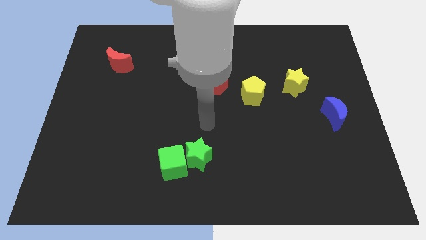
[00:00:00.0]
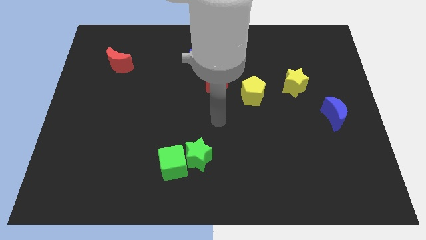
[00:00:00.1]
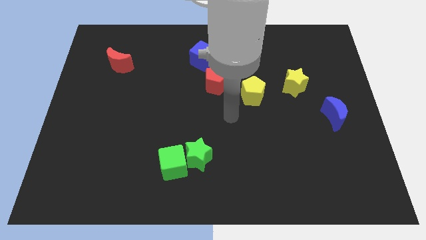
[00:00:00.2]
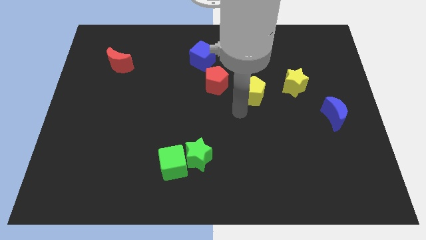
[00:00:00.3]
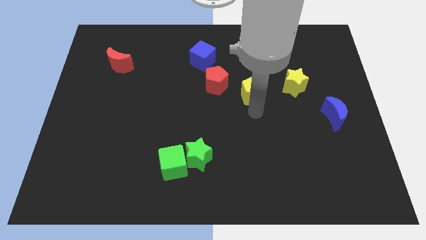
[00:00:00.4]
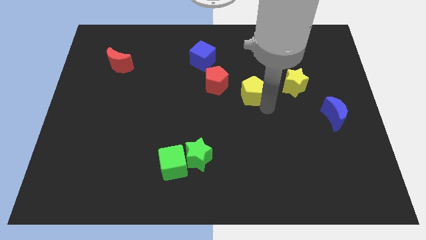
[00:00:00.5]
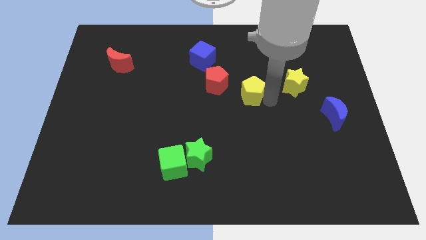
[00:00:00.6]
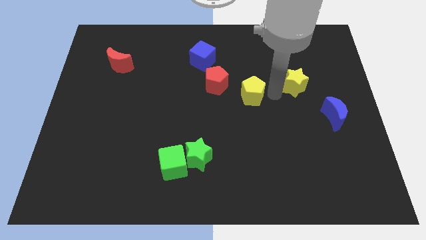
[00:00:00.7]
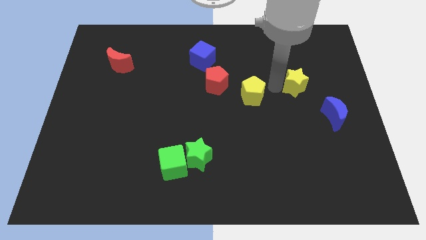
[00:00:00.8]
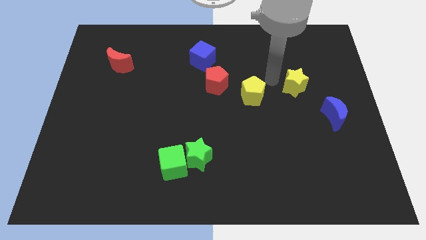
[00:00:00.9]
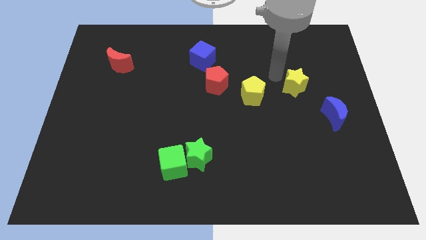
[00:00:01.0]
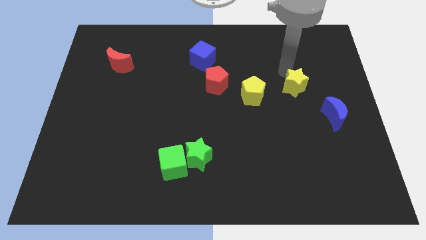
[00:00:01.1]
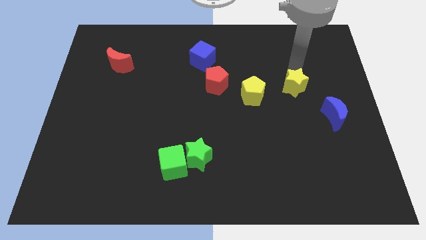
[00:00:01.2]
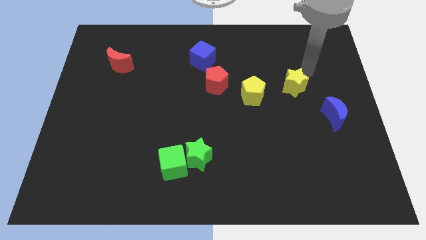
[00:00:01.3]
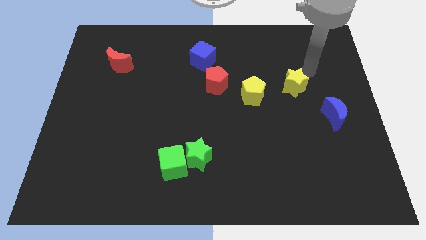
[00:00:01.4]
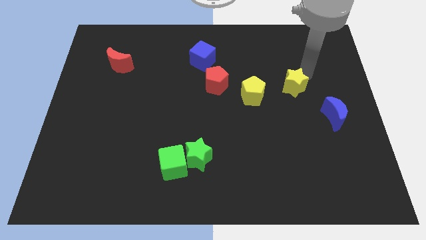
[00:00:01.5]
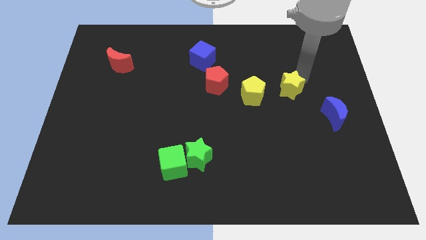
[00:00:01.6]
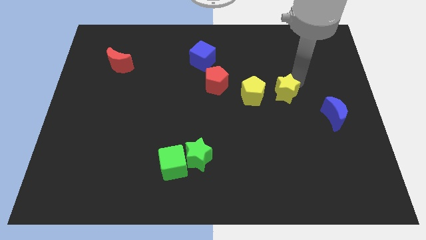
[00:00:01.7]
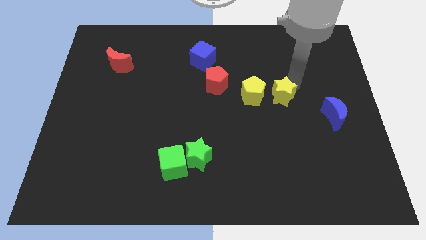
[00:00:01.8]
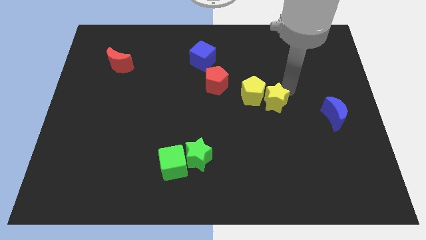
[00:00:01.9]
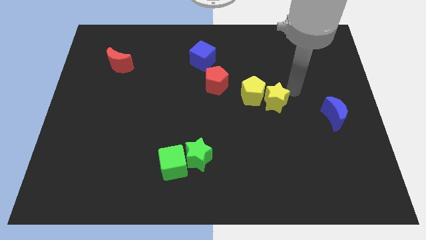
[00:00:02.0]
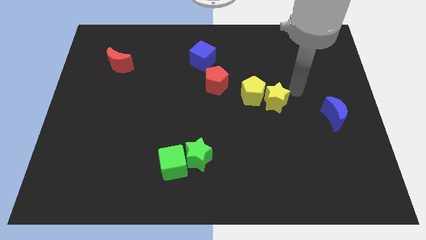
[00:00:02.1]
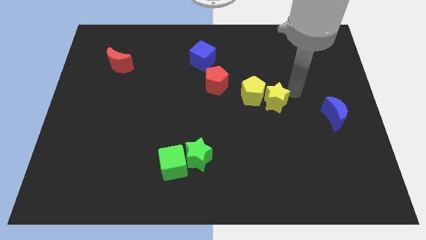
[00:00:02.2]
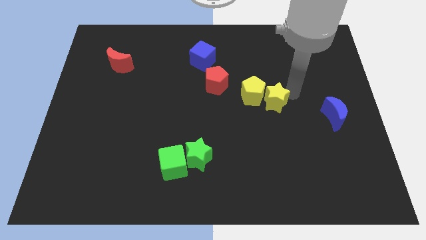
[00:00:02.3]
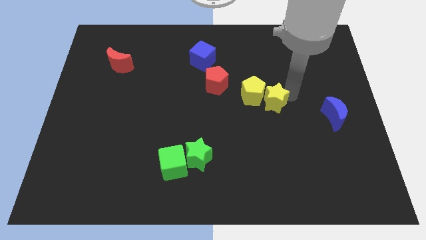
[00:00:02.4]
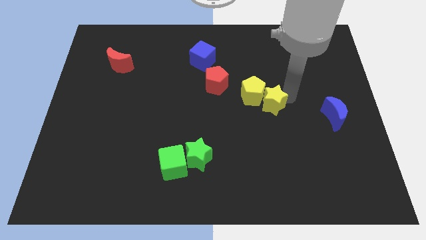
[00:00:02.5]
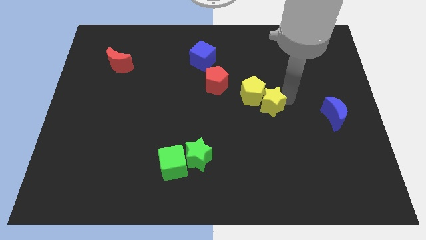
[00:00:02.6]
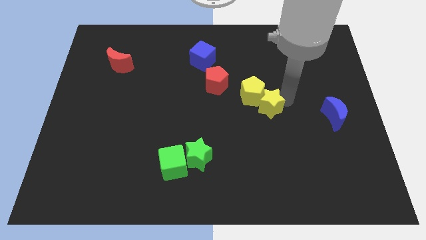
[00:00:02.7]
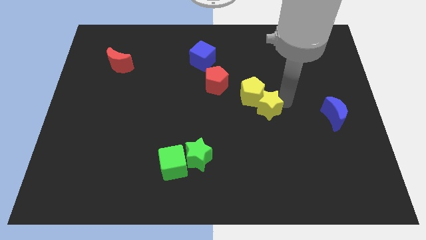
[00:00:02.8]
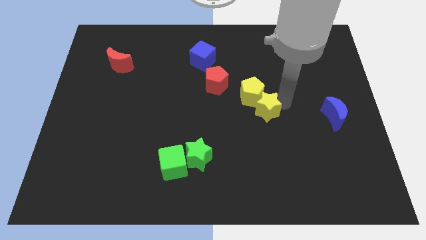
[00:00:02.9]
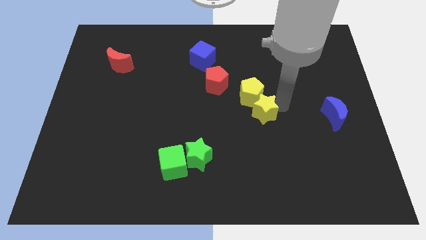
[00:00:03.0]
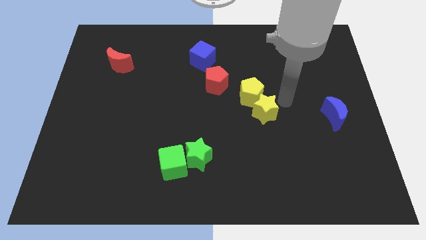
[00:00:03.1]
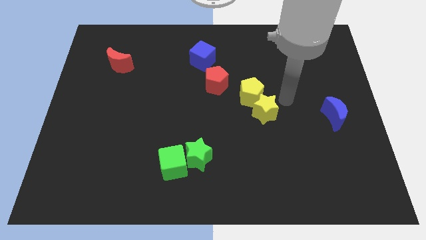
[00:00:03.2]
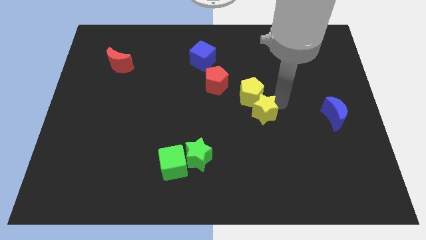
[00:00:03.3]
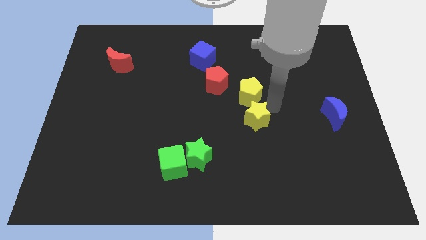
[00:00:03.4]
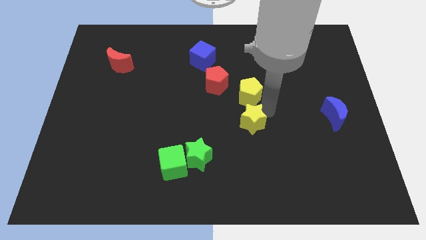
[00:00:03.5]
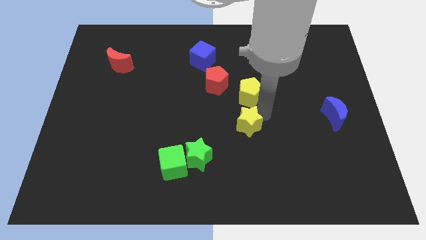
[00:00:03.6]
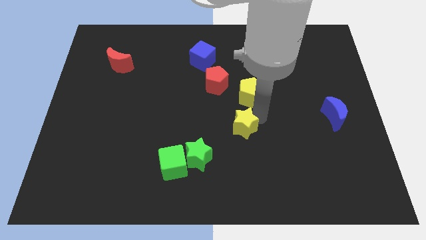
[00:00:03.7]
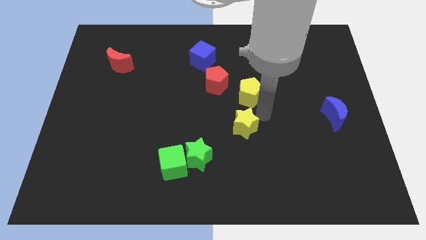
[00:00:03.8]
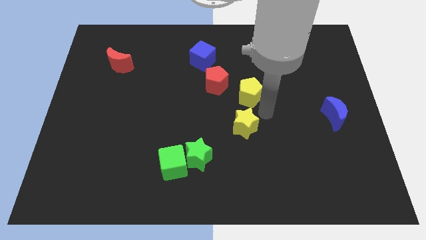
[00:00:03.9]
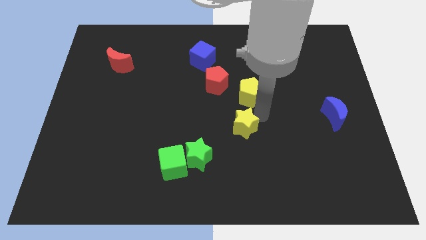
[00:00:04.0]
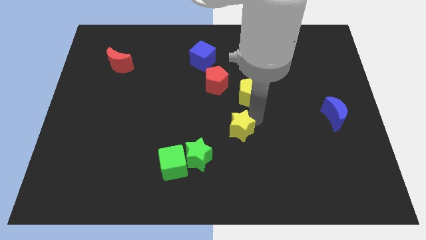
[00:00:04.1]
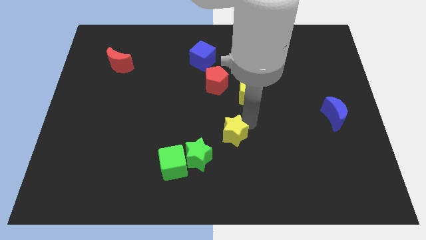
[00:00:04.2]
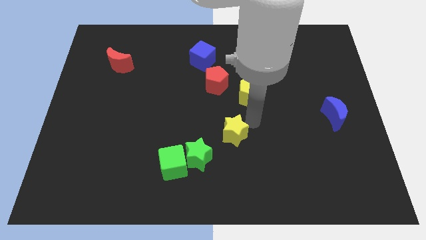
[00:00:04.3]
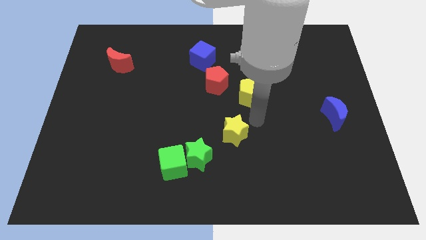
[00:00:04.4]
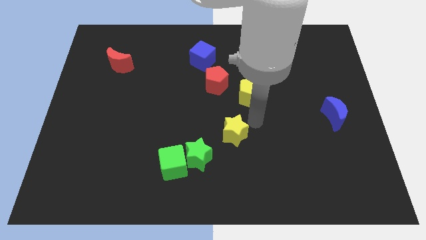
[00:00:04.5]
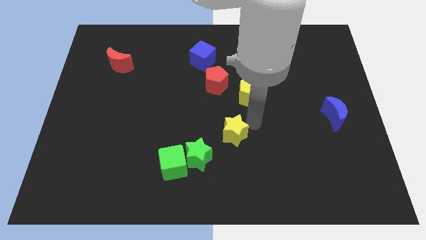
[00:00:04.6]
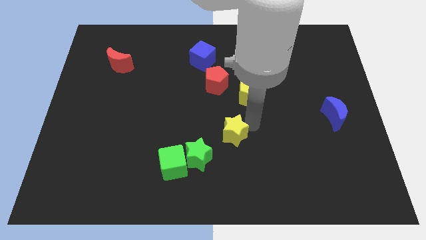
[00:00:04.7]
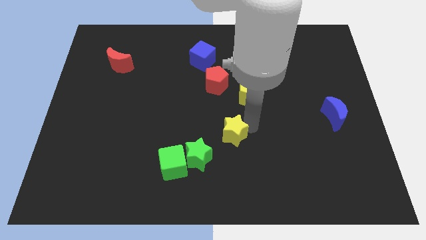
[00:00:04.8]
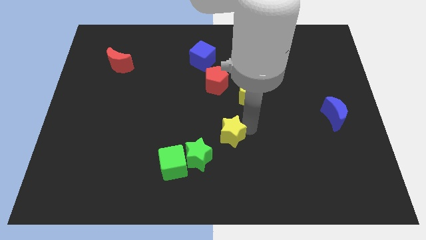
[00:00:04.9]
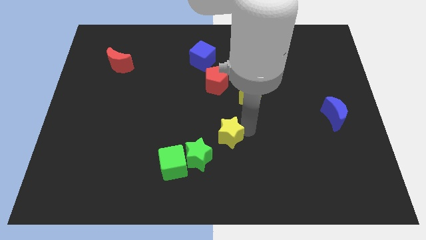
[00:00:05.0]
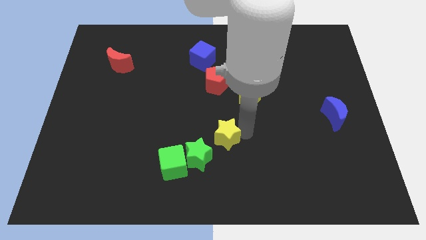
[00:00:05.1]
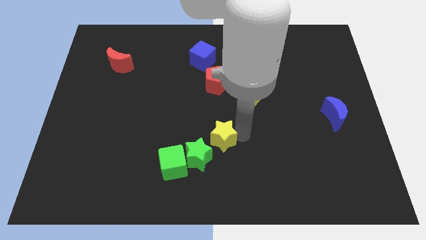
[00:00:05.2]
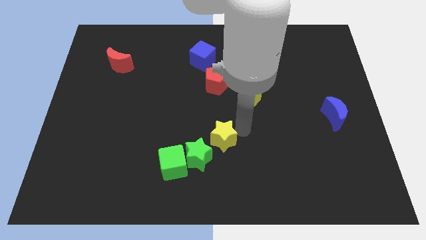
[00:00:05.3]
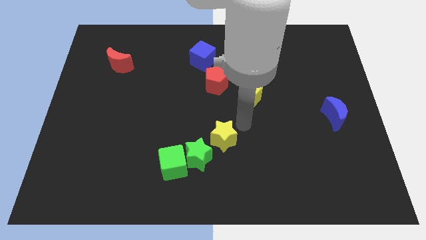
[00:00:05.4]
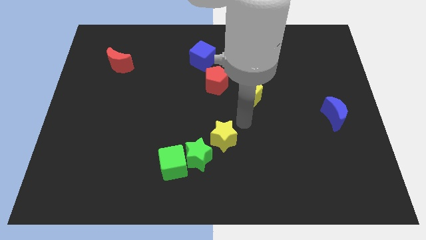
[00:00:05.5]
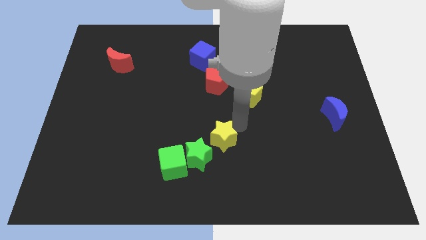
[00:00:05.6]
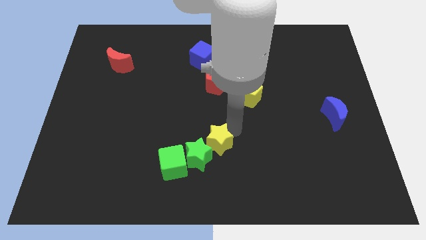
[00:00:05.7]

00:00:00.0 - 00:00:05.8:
push the yellow star to the green star

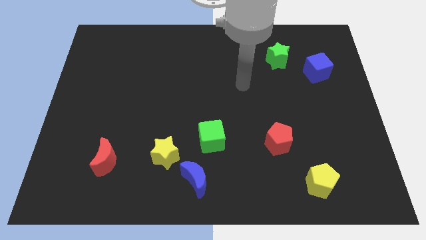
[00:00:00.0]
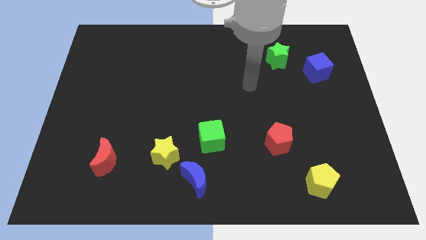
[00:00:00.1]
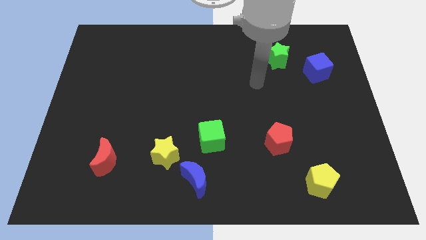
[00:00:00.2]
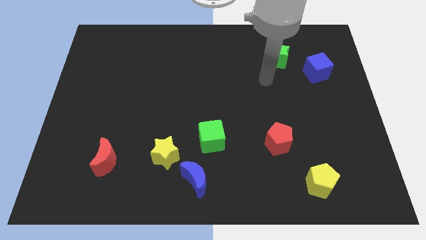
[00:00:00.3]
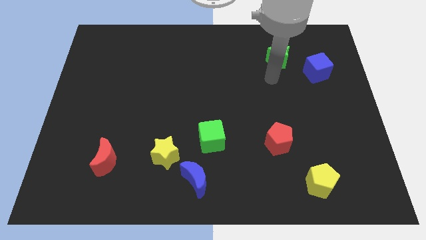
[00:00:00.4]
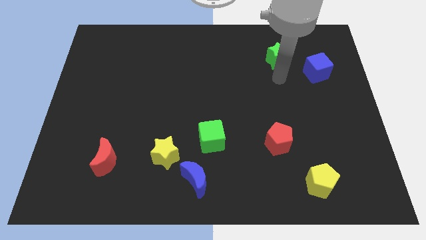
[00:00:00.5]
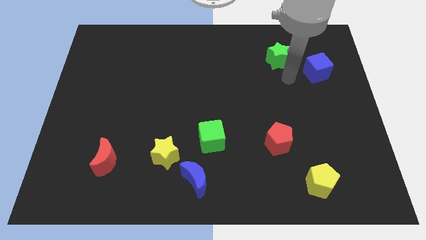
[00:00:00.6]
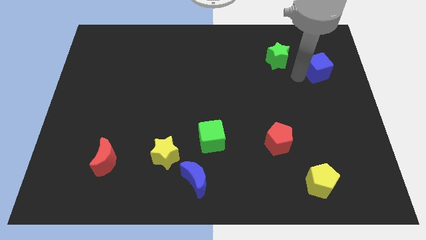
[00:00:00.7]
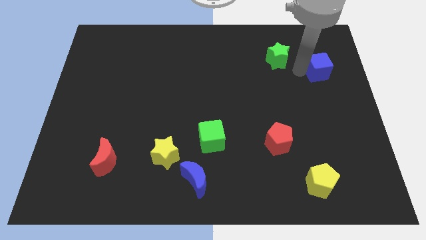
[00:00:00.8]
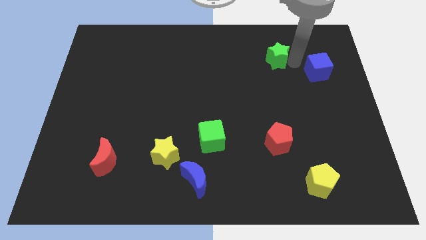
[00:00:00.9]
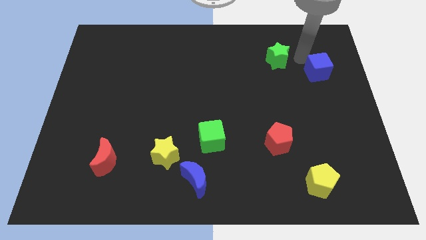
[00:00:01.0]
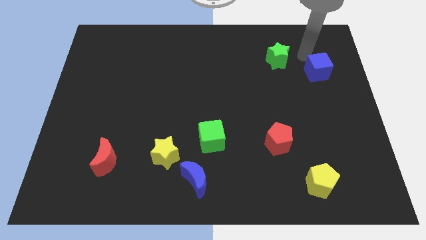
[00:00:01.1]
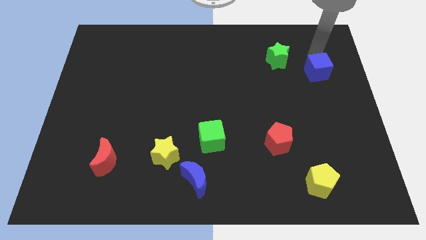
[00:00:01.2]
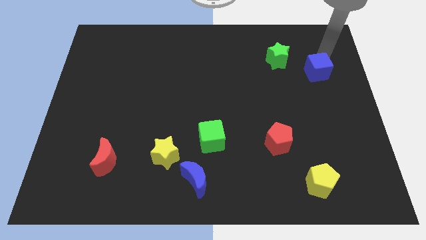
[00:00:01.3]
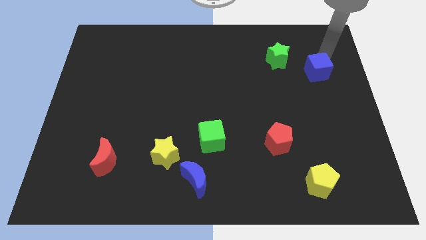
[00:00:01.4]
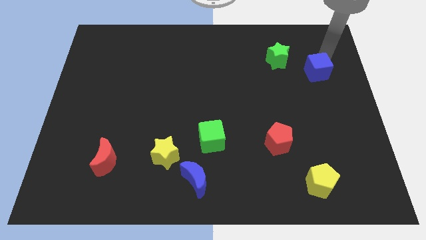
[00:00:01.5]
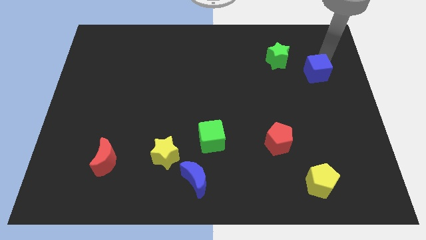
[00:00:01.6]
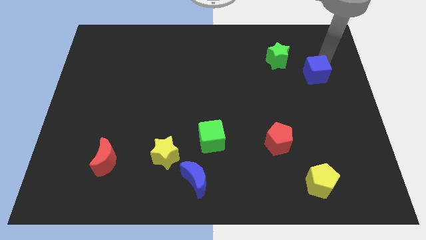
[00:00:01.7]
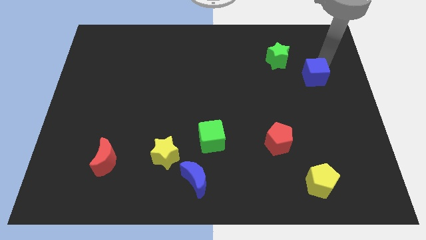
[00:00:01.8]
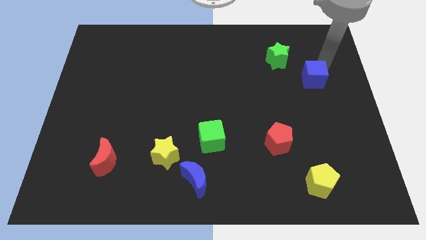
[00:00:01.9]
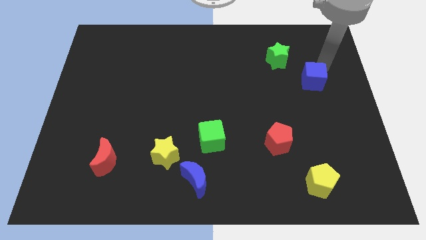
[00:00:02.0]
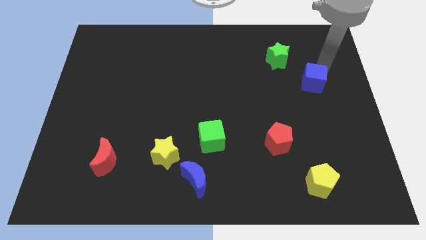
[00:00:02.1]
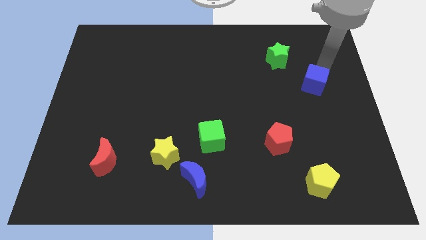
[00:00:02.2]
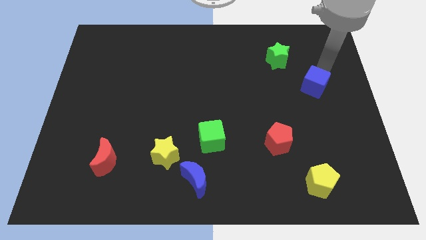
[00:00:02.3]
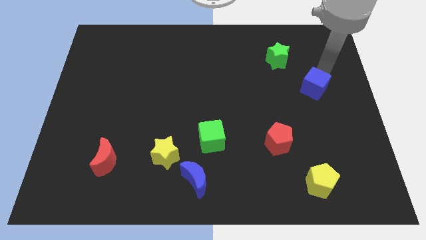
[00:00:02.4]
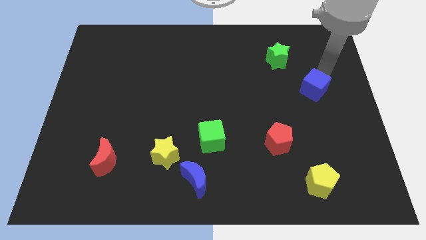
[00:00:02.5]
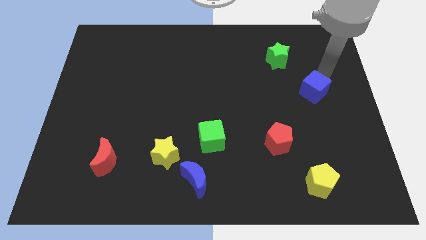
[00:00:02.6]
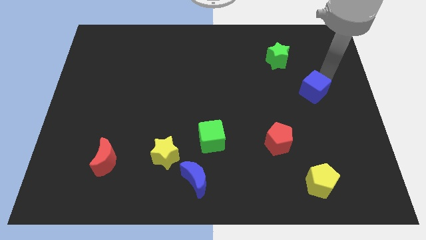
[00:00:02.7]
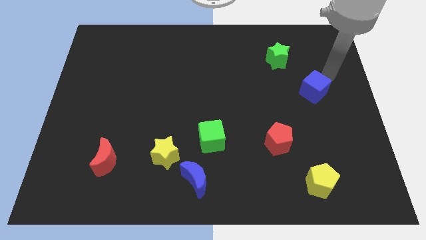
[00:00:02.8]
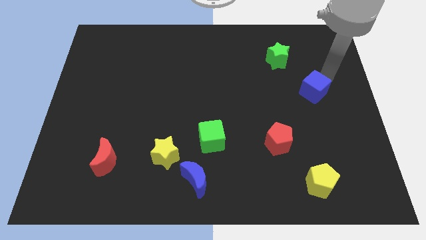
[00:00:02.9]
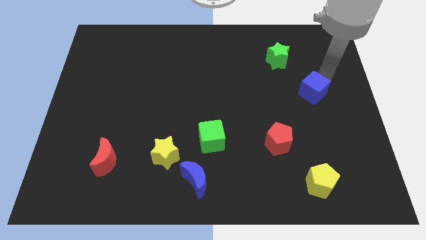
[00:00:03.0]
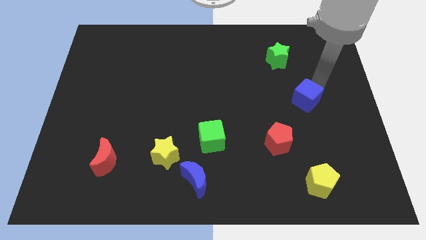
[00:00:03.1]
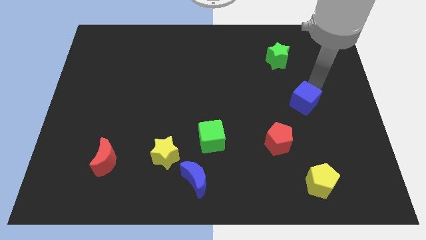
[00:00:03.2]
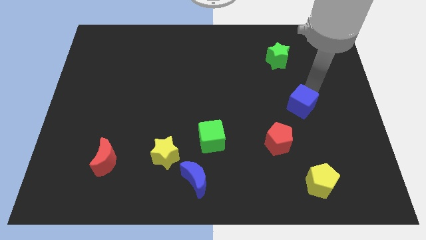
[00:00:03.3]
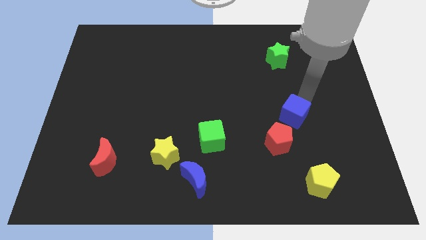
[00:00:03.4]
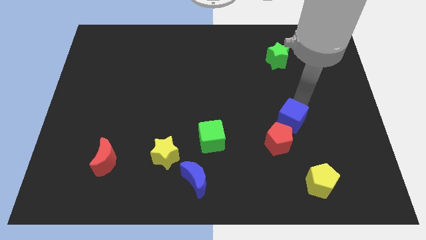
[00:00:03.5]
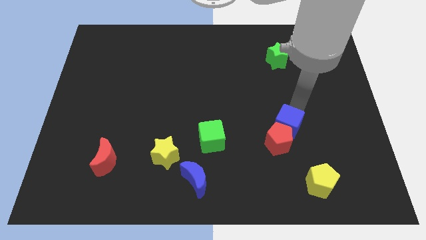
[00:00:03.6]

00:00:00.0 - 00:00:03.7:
slide the blue cube towards the red pentagon
